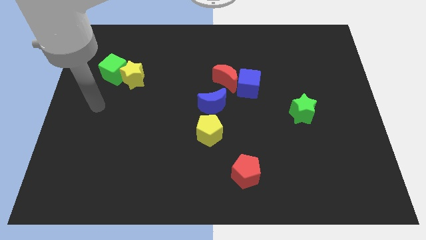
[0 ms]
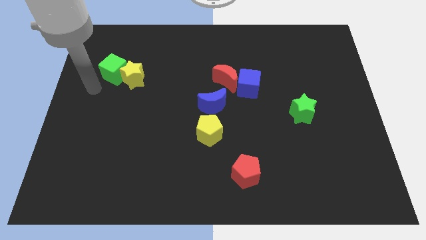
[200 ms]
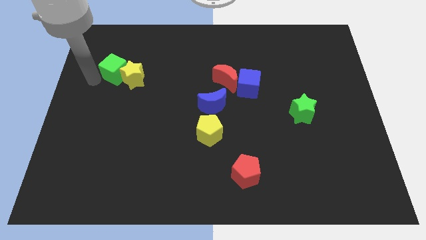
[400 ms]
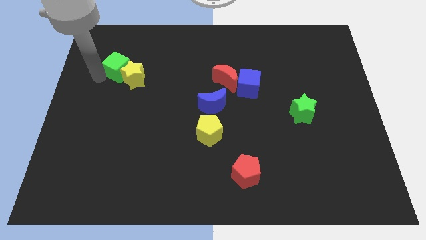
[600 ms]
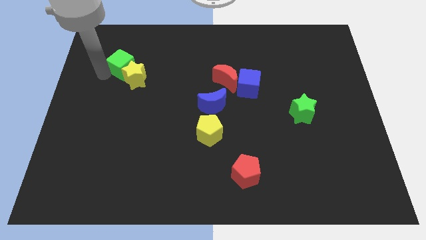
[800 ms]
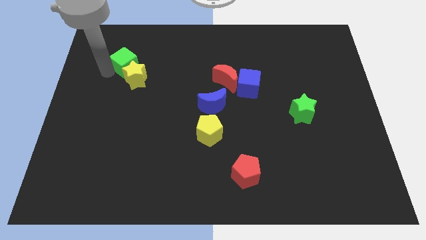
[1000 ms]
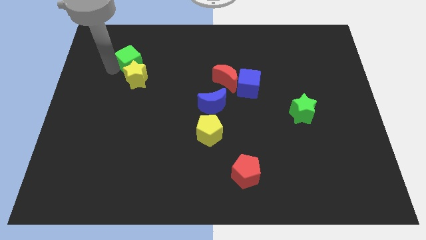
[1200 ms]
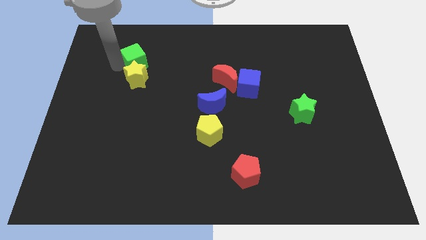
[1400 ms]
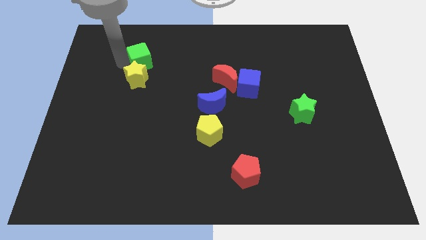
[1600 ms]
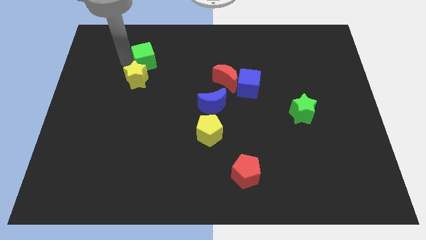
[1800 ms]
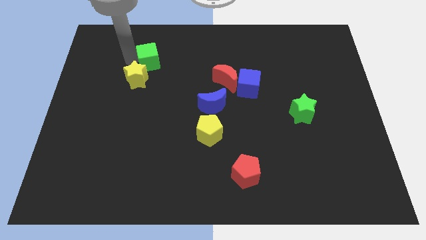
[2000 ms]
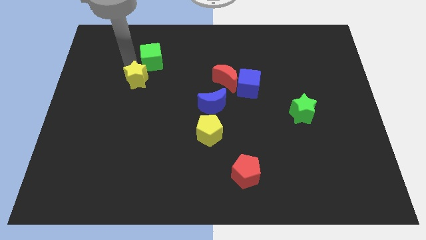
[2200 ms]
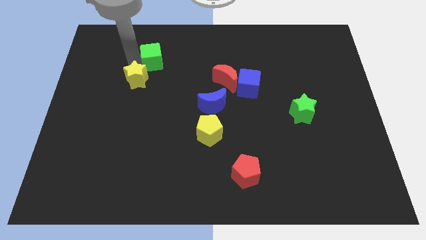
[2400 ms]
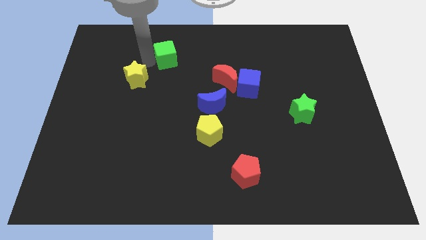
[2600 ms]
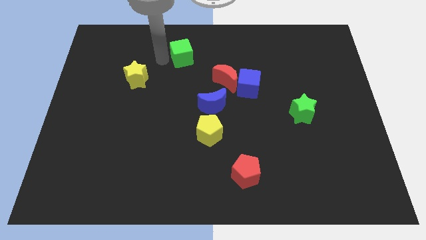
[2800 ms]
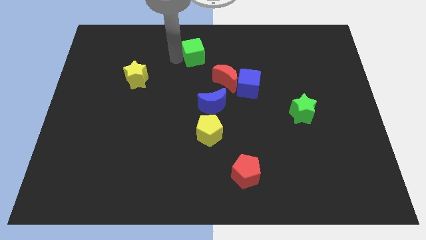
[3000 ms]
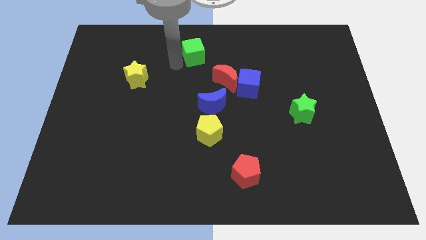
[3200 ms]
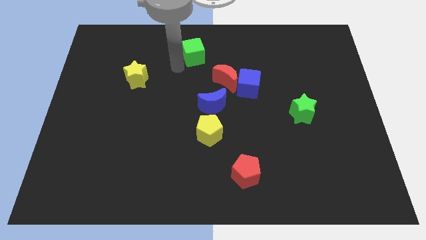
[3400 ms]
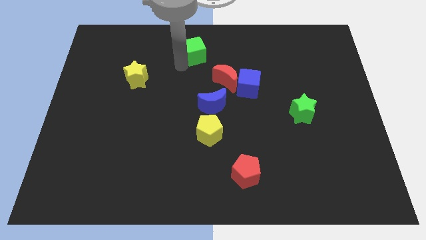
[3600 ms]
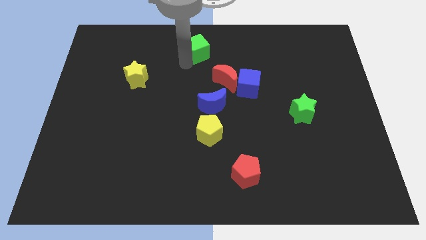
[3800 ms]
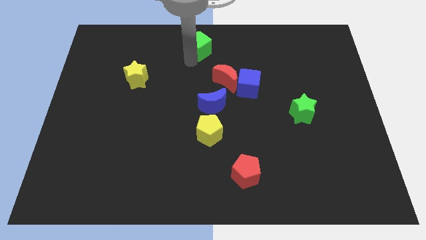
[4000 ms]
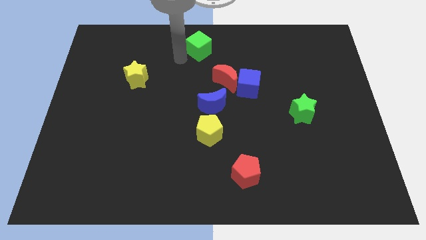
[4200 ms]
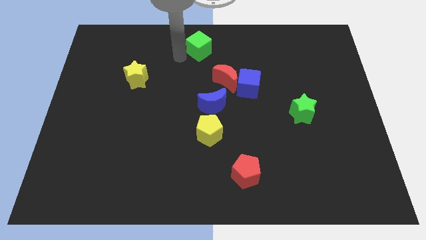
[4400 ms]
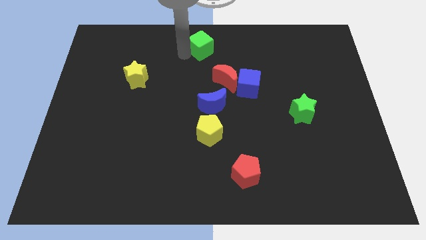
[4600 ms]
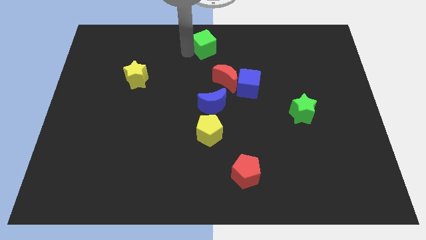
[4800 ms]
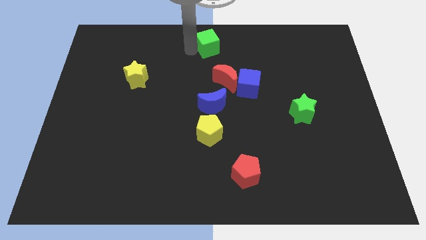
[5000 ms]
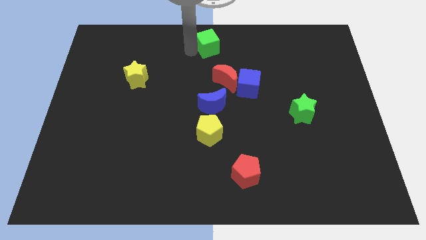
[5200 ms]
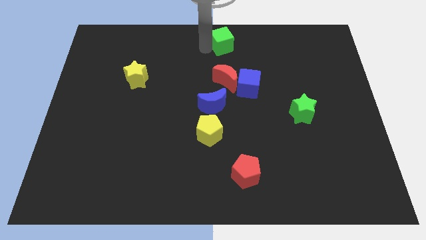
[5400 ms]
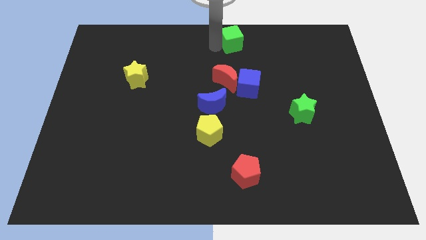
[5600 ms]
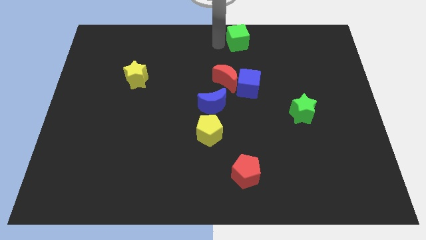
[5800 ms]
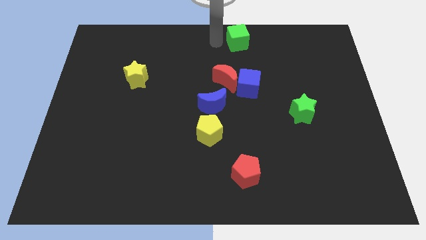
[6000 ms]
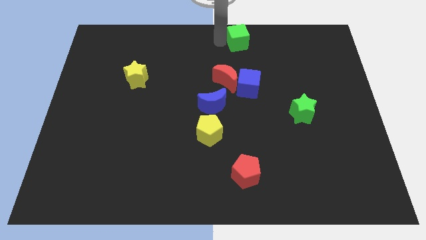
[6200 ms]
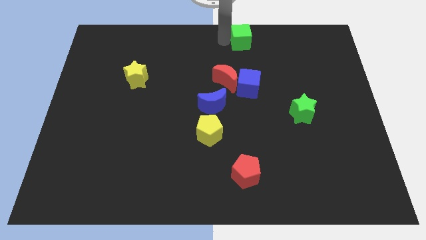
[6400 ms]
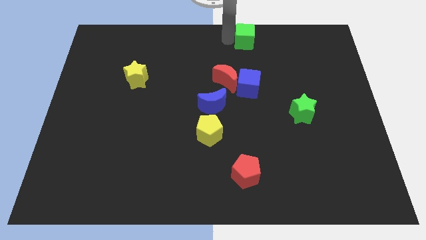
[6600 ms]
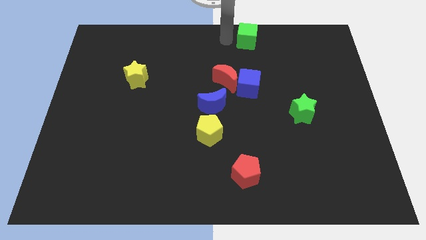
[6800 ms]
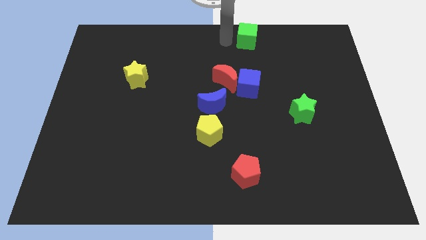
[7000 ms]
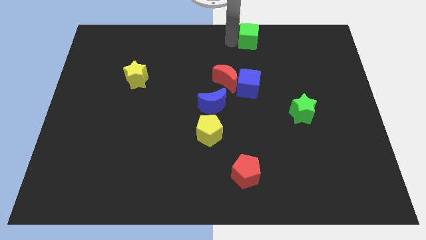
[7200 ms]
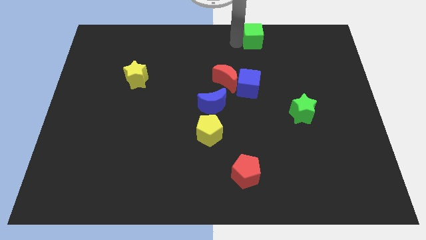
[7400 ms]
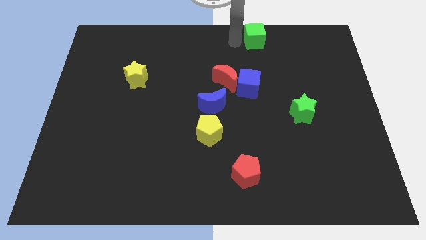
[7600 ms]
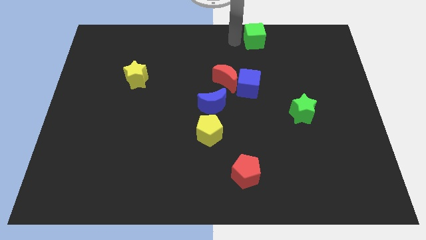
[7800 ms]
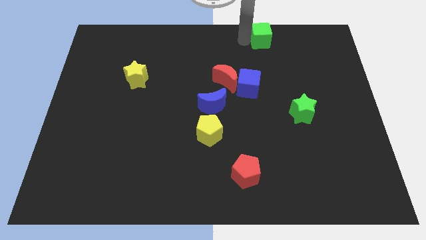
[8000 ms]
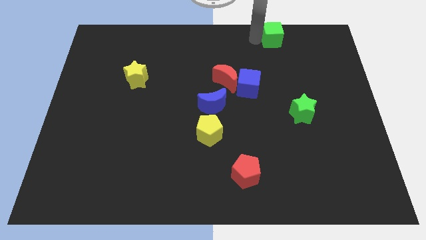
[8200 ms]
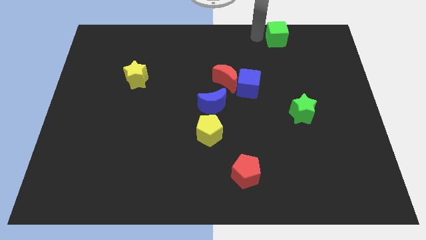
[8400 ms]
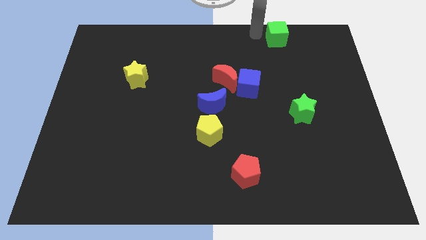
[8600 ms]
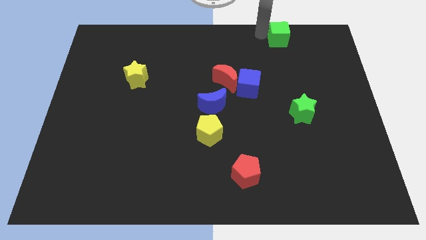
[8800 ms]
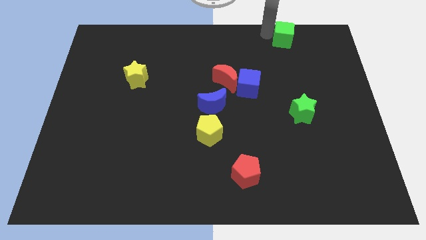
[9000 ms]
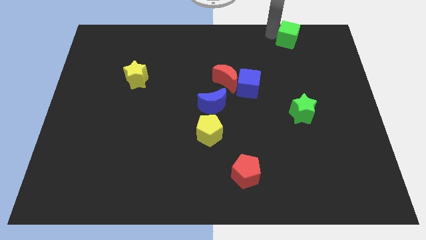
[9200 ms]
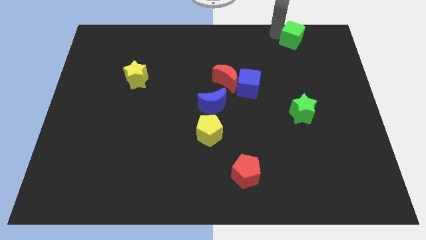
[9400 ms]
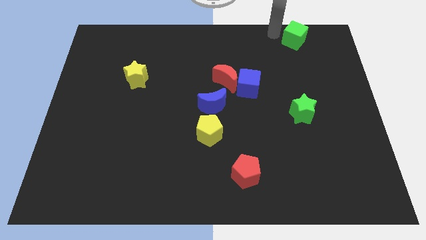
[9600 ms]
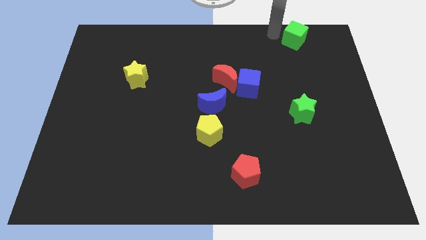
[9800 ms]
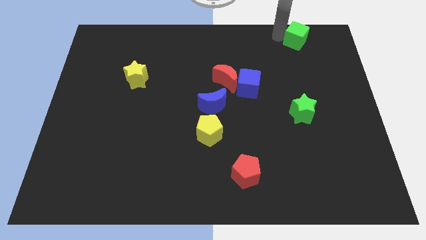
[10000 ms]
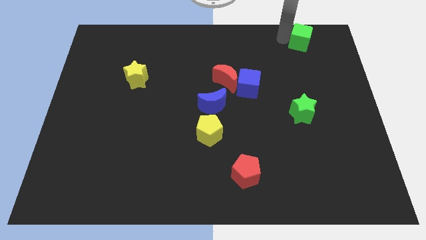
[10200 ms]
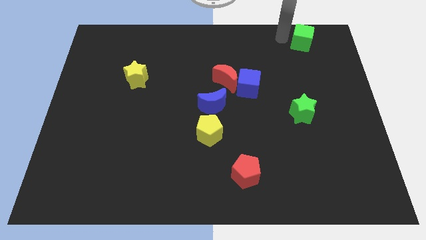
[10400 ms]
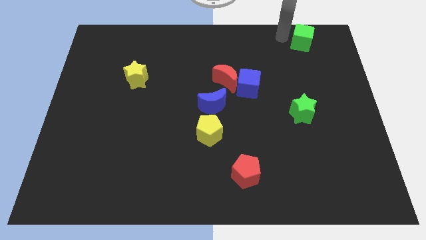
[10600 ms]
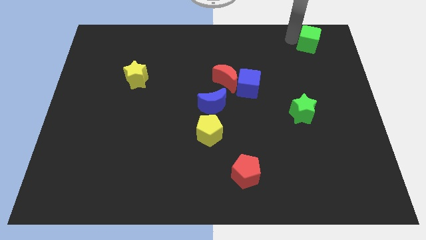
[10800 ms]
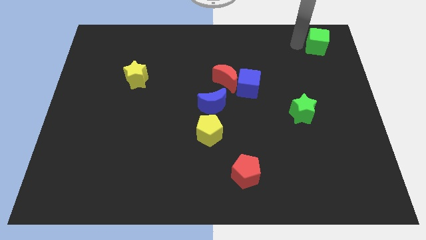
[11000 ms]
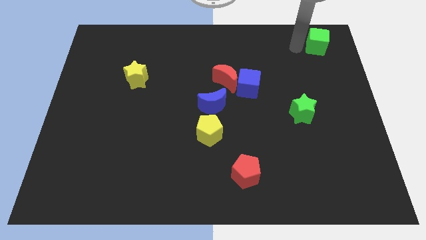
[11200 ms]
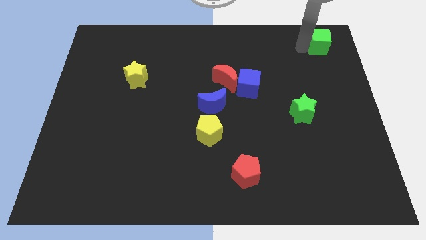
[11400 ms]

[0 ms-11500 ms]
push the green cube to the upper right corner

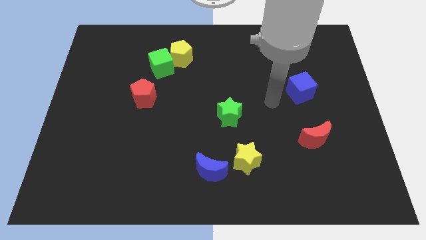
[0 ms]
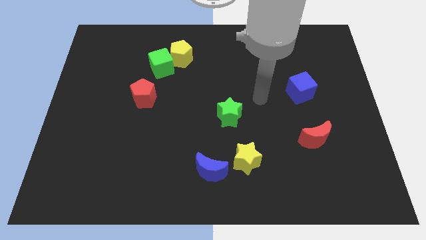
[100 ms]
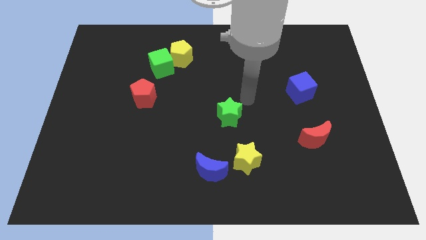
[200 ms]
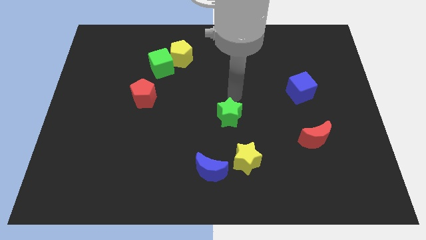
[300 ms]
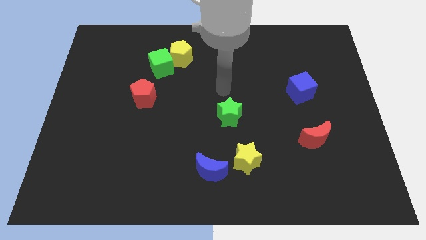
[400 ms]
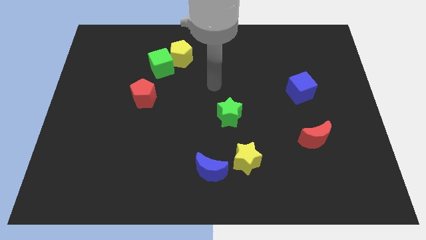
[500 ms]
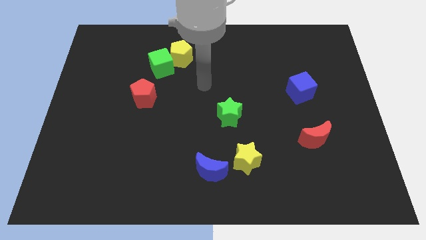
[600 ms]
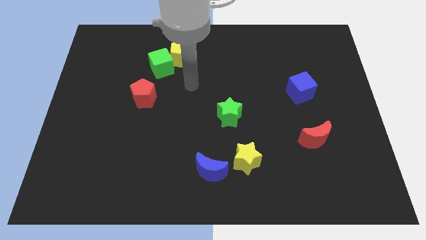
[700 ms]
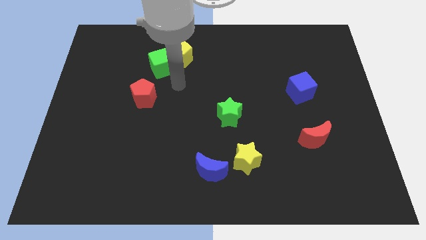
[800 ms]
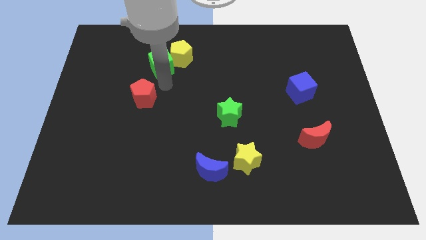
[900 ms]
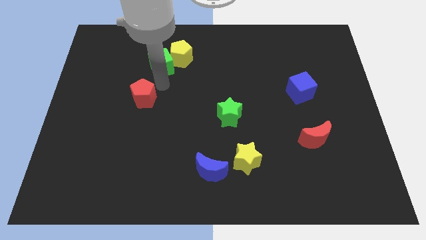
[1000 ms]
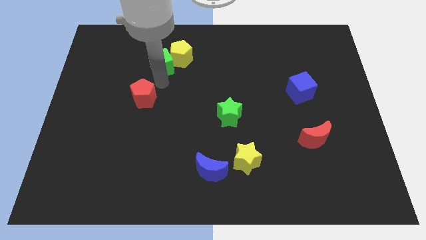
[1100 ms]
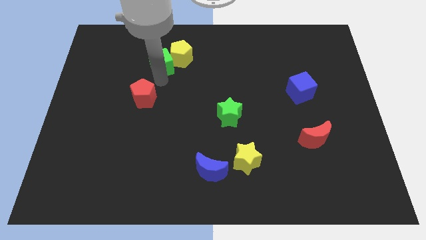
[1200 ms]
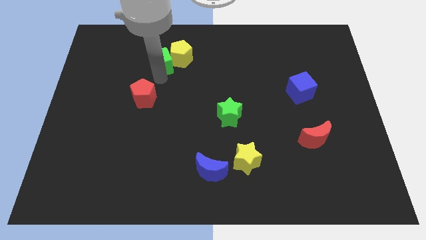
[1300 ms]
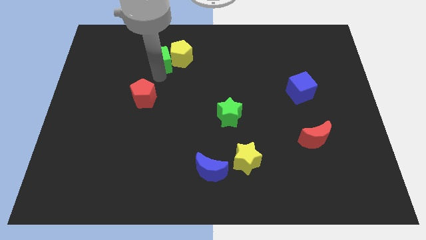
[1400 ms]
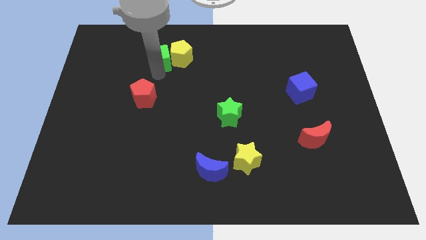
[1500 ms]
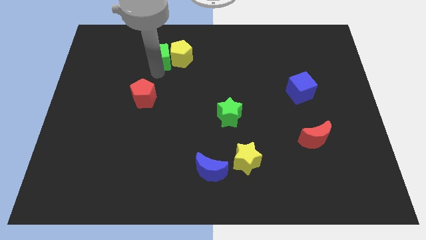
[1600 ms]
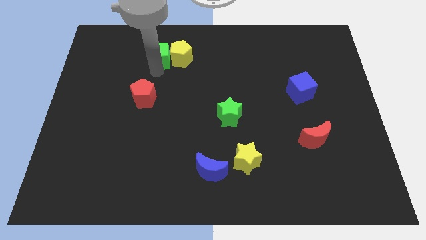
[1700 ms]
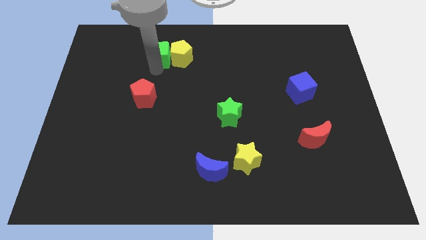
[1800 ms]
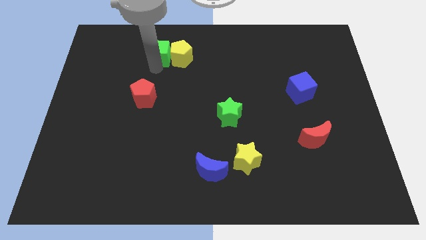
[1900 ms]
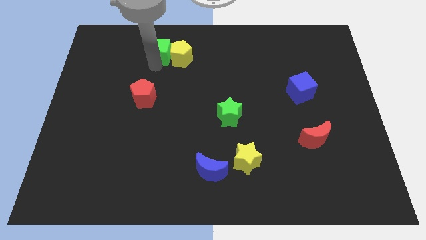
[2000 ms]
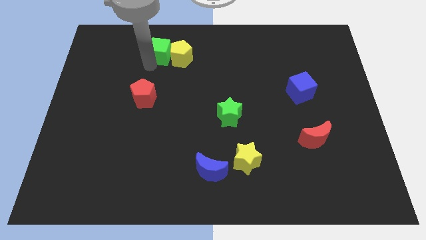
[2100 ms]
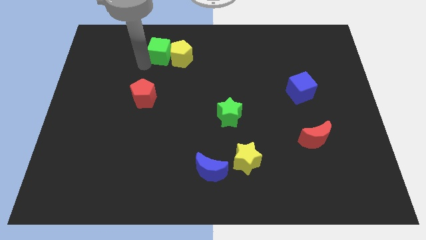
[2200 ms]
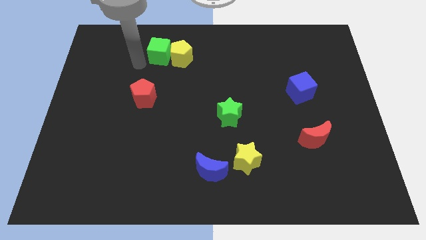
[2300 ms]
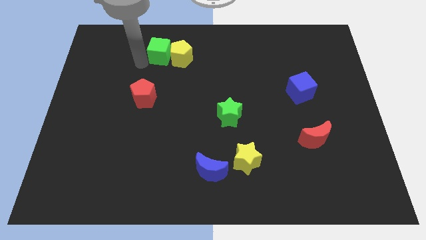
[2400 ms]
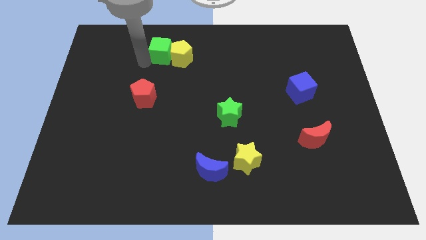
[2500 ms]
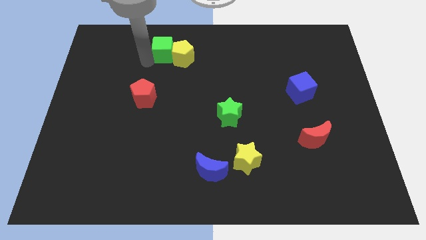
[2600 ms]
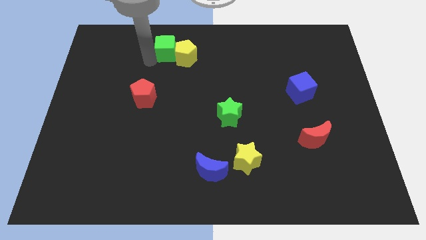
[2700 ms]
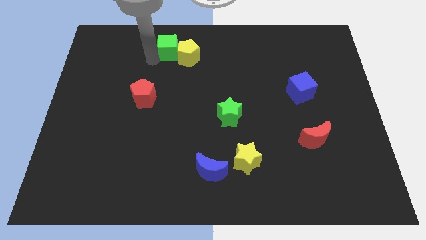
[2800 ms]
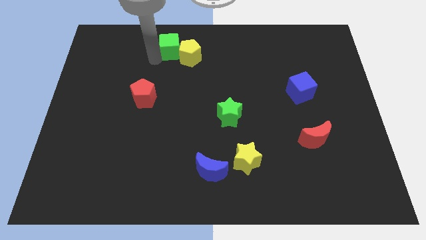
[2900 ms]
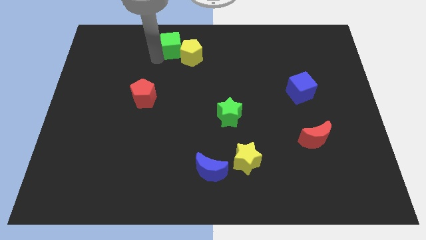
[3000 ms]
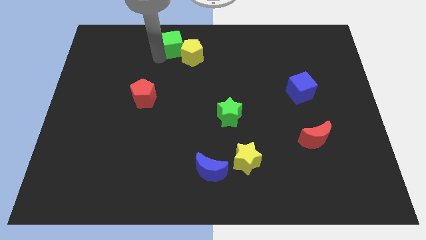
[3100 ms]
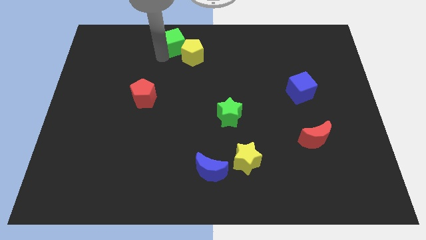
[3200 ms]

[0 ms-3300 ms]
move the green cube to the top side
